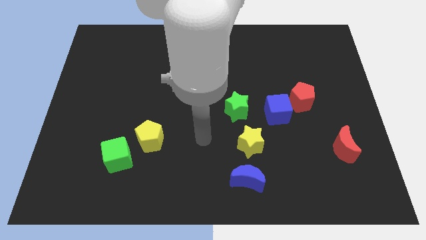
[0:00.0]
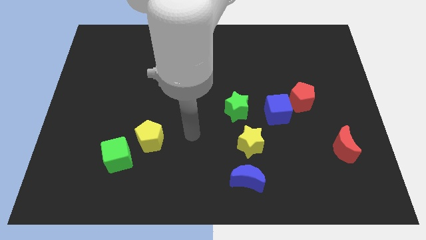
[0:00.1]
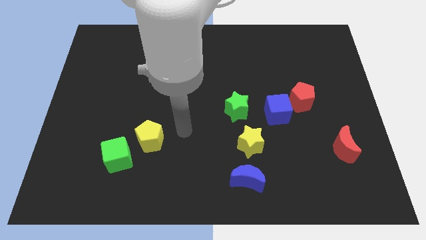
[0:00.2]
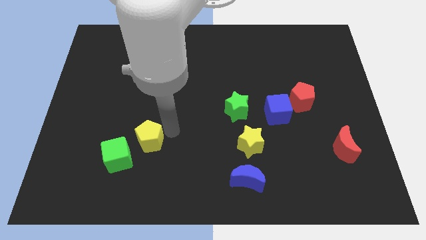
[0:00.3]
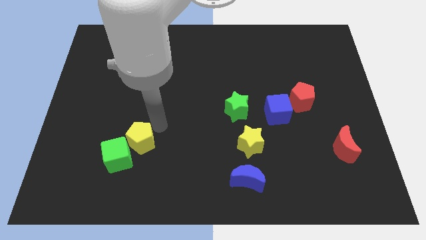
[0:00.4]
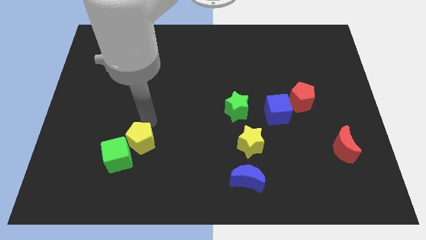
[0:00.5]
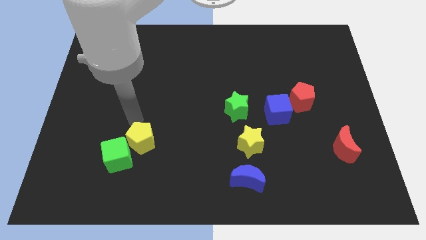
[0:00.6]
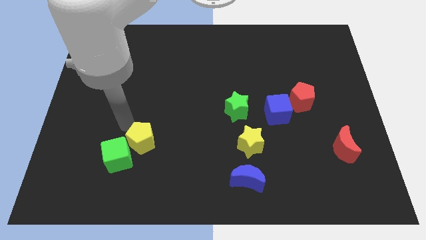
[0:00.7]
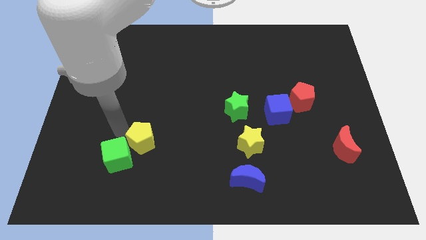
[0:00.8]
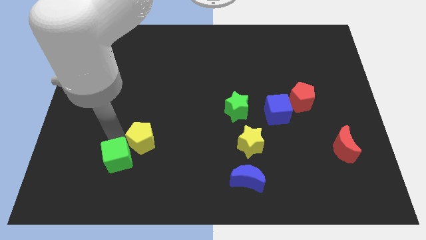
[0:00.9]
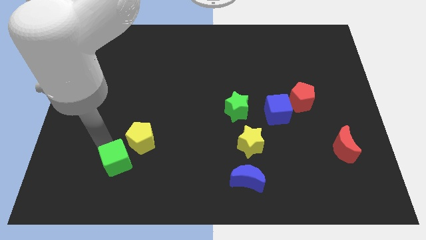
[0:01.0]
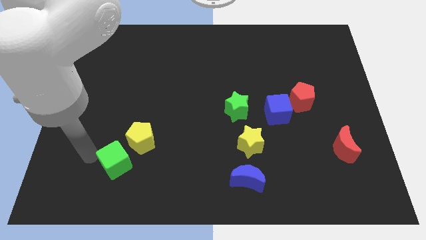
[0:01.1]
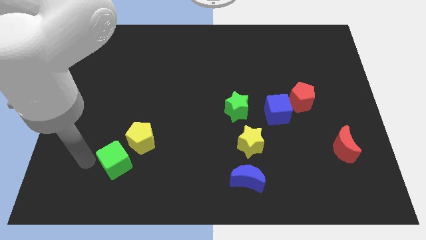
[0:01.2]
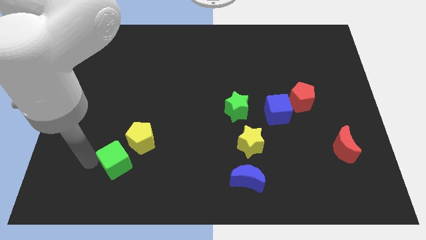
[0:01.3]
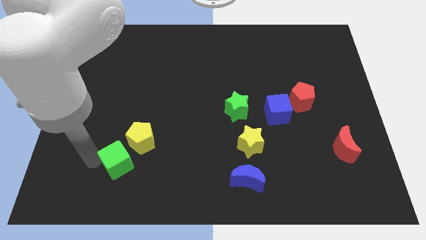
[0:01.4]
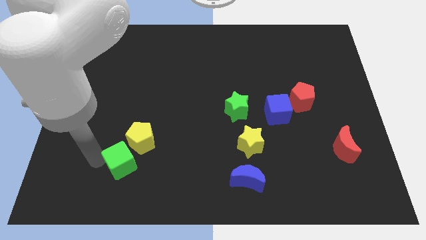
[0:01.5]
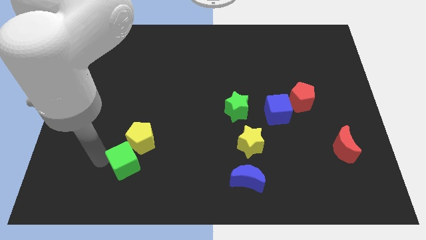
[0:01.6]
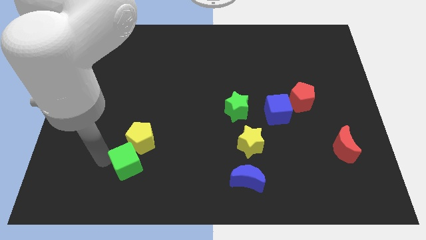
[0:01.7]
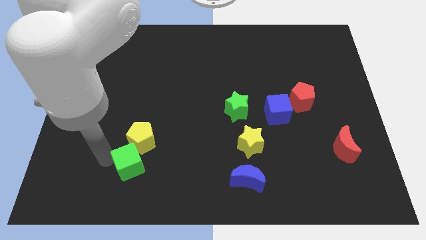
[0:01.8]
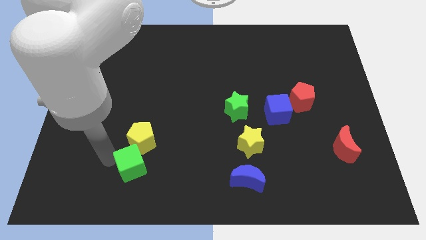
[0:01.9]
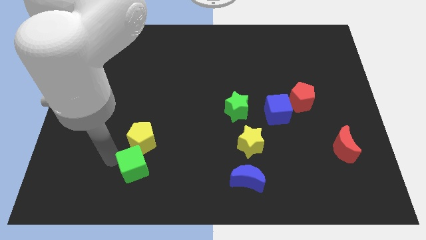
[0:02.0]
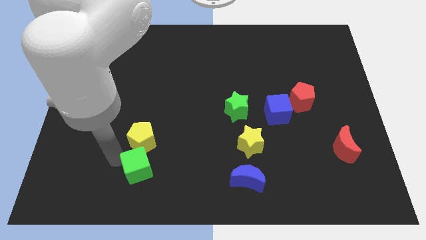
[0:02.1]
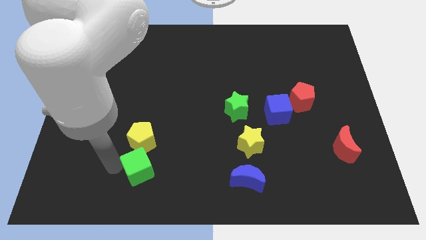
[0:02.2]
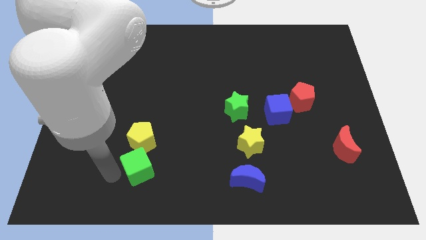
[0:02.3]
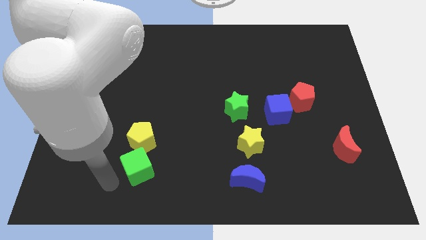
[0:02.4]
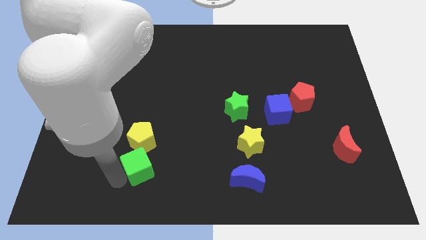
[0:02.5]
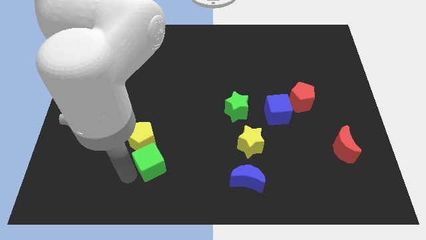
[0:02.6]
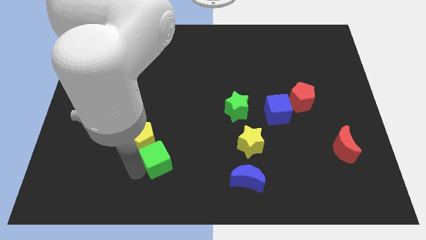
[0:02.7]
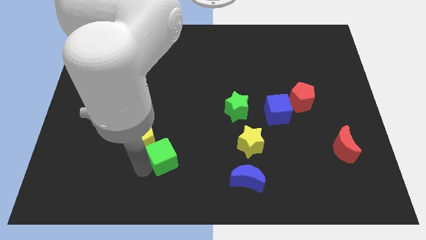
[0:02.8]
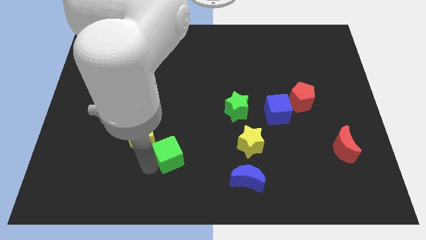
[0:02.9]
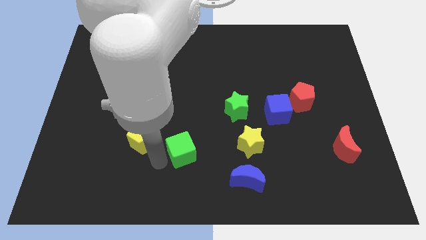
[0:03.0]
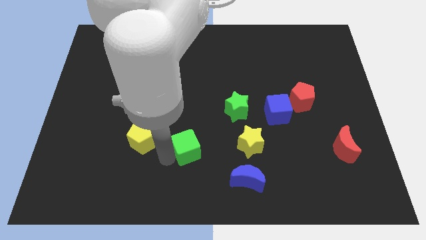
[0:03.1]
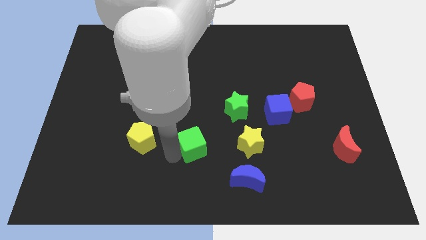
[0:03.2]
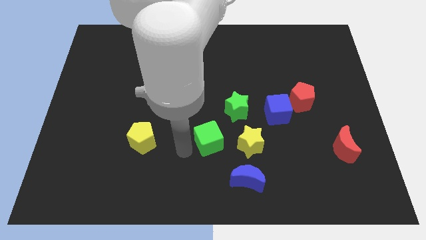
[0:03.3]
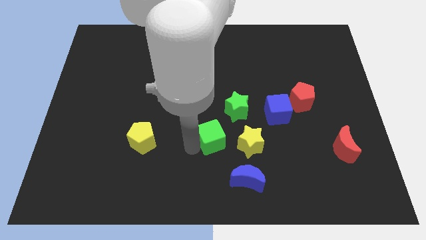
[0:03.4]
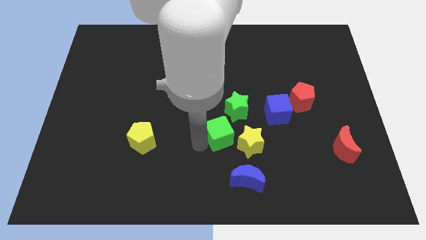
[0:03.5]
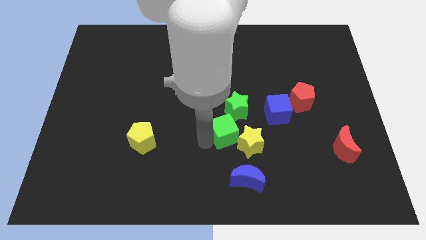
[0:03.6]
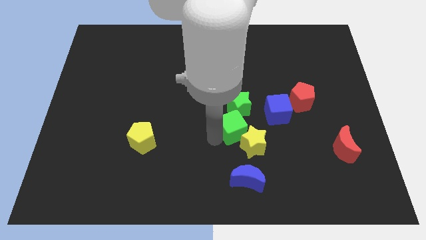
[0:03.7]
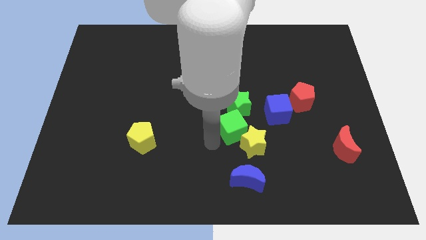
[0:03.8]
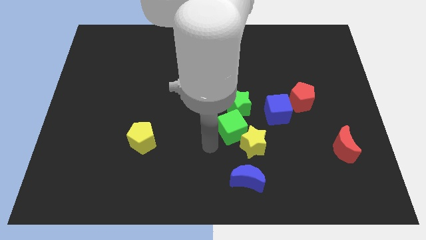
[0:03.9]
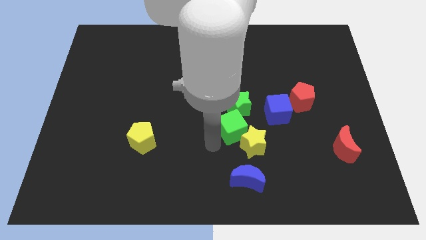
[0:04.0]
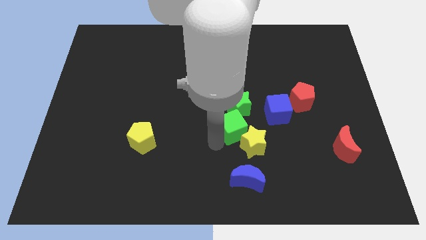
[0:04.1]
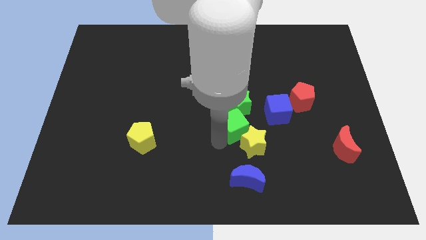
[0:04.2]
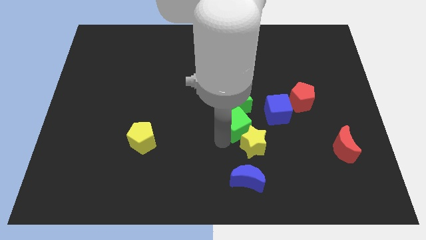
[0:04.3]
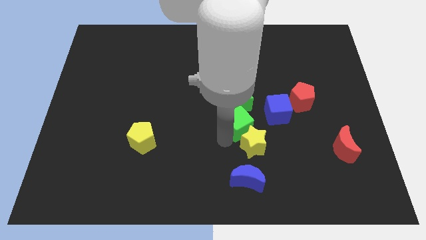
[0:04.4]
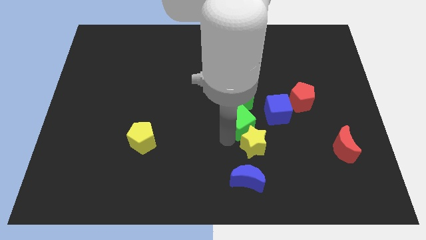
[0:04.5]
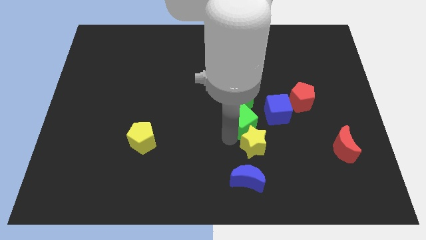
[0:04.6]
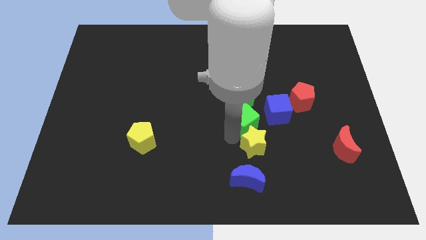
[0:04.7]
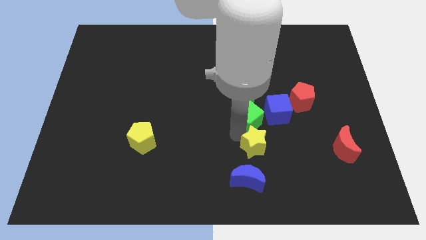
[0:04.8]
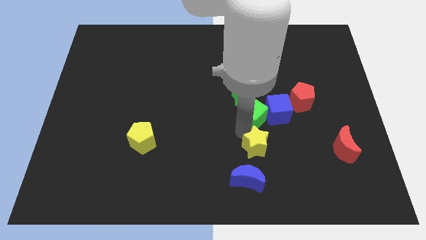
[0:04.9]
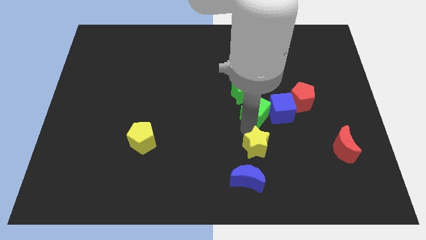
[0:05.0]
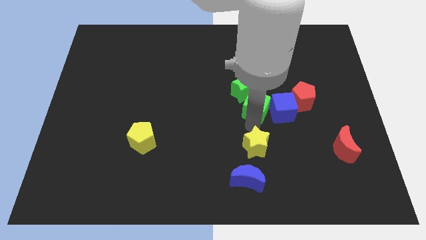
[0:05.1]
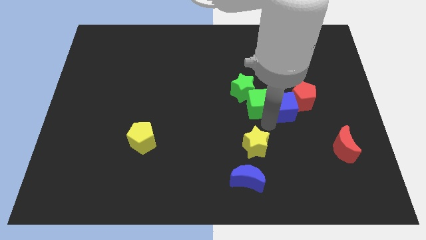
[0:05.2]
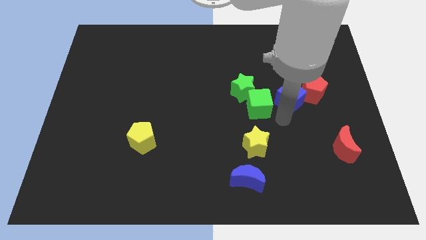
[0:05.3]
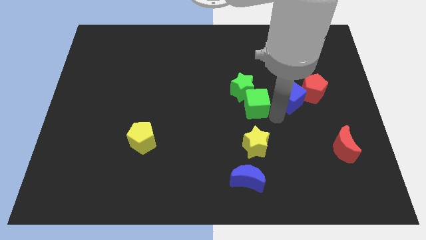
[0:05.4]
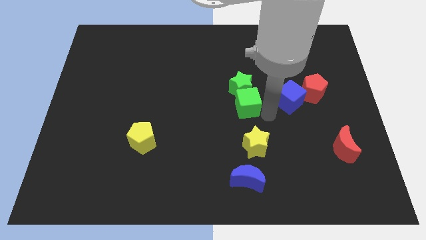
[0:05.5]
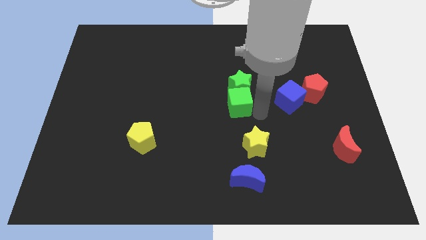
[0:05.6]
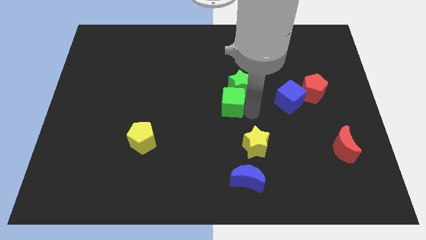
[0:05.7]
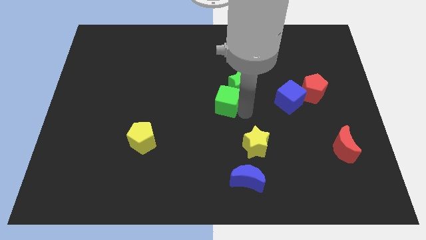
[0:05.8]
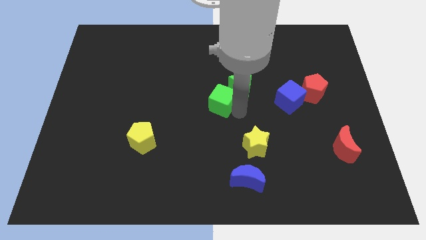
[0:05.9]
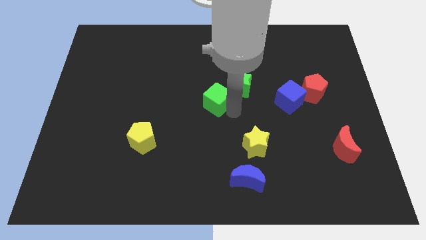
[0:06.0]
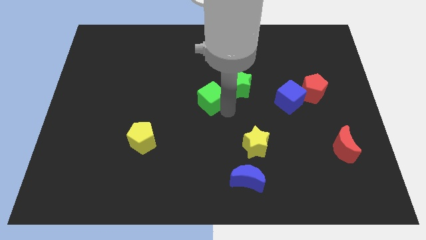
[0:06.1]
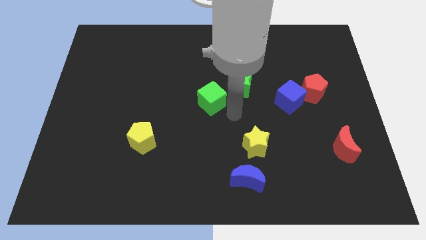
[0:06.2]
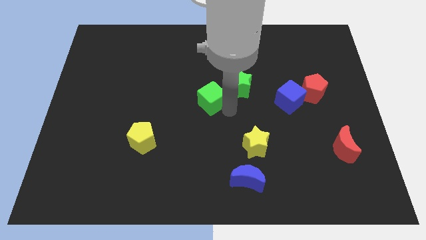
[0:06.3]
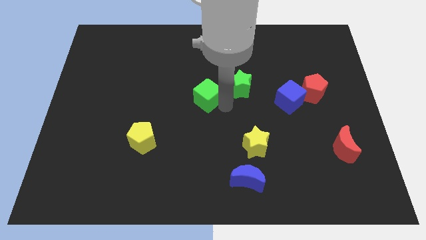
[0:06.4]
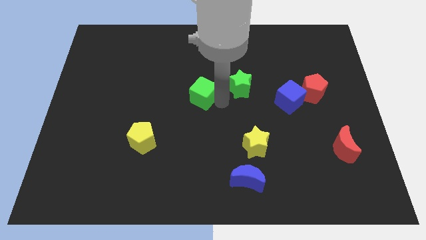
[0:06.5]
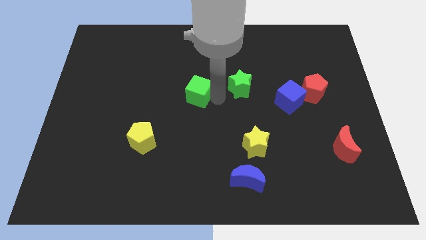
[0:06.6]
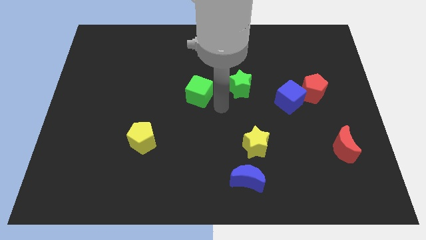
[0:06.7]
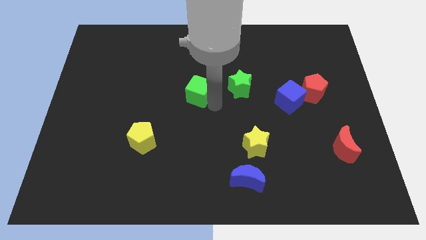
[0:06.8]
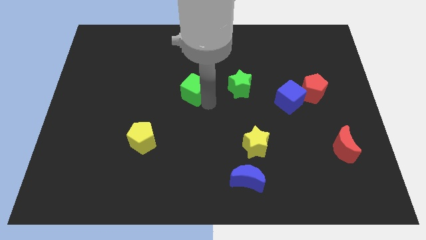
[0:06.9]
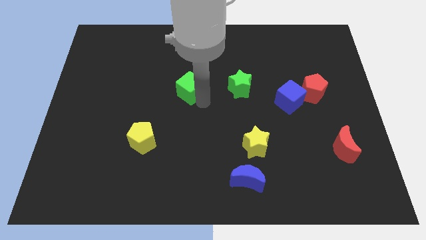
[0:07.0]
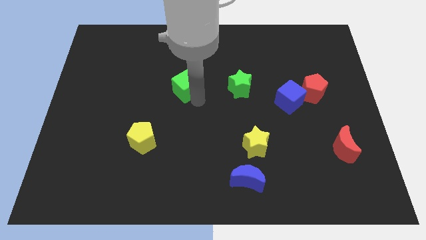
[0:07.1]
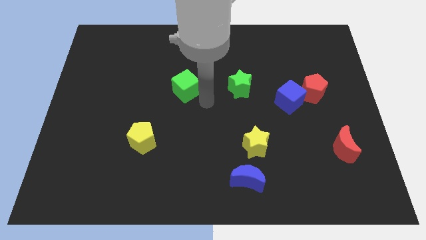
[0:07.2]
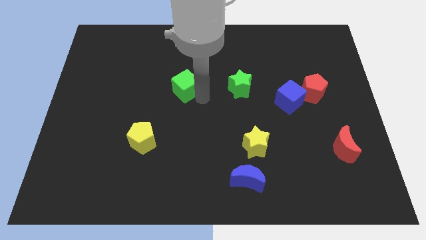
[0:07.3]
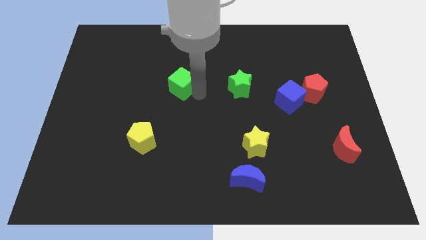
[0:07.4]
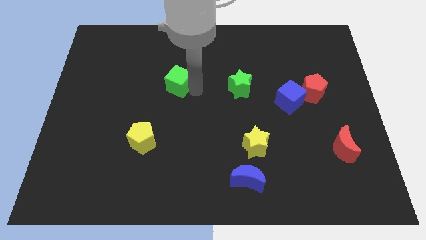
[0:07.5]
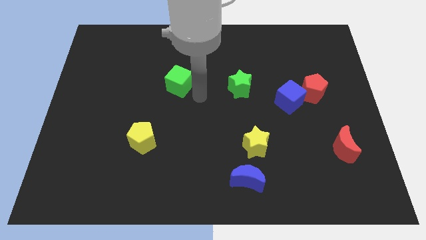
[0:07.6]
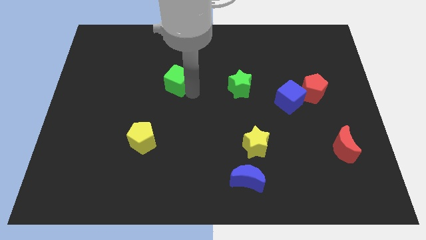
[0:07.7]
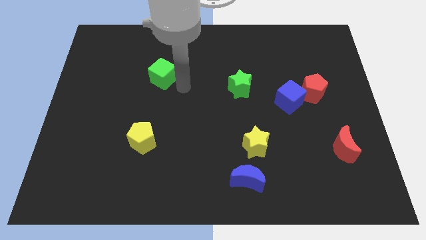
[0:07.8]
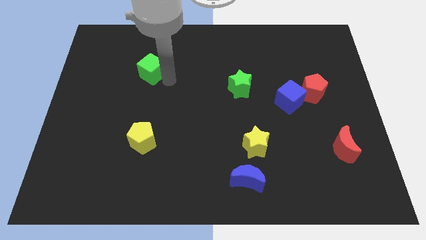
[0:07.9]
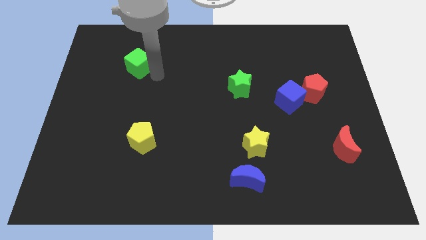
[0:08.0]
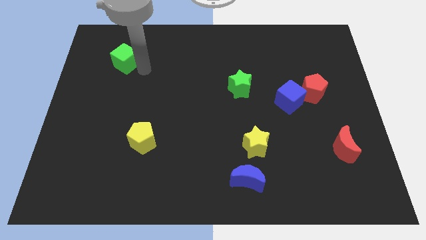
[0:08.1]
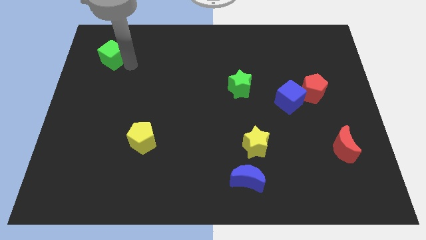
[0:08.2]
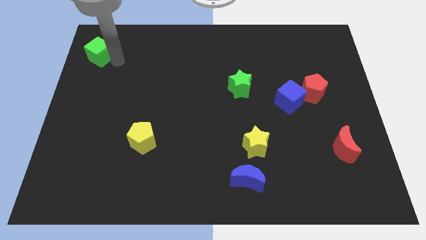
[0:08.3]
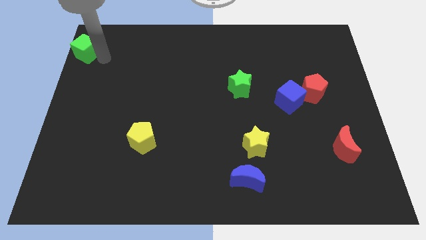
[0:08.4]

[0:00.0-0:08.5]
move the green cube to the top left corner
